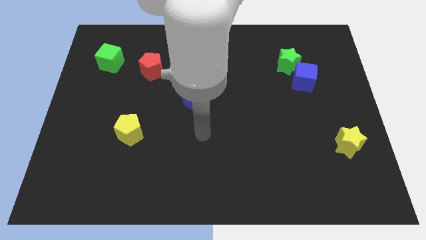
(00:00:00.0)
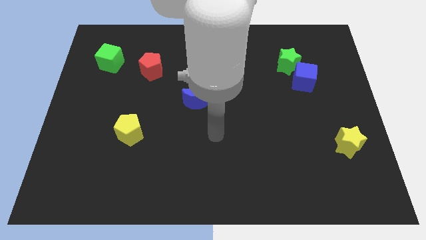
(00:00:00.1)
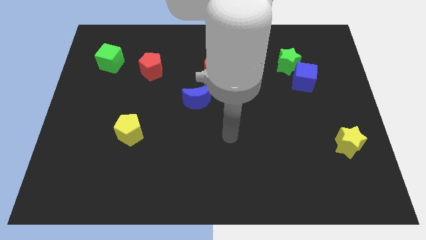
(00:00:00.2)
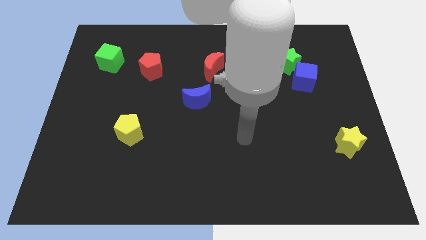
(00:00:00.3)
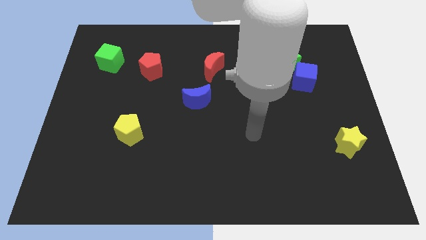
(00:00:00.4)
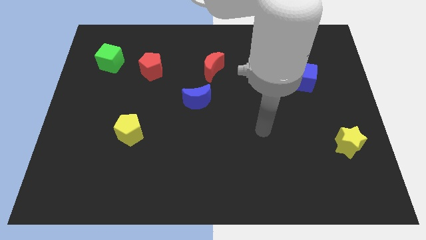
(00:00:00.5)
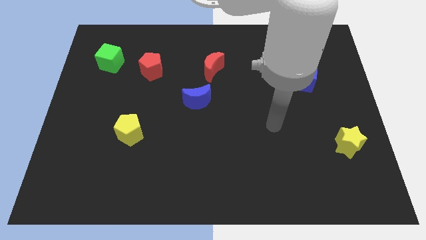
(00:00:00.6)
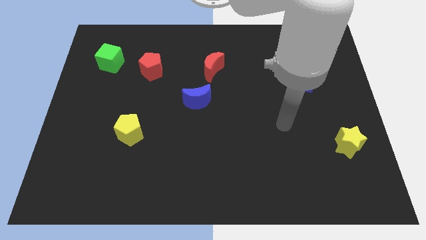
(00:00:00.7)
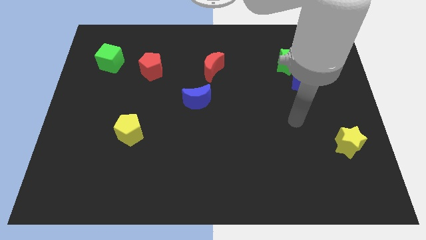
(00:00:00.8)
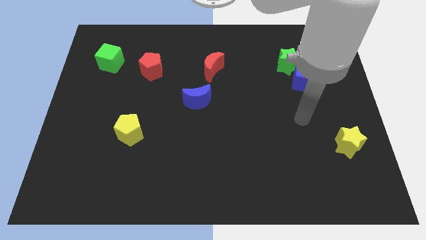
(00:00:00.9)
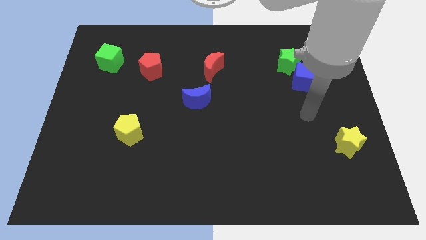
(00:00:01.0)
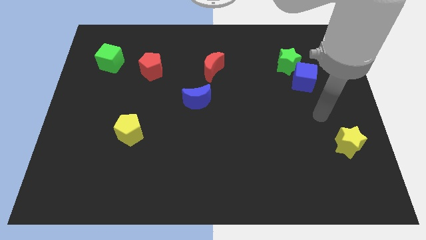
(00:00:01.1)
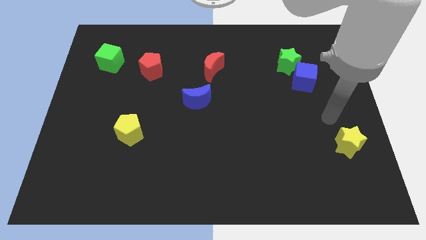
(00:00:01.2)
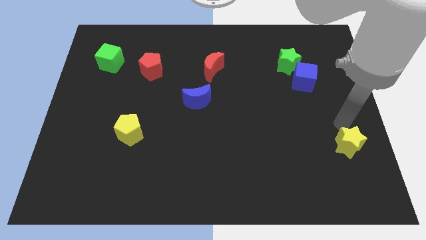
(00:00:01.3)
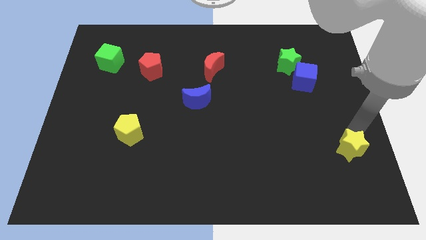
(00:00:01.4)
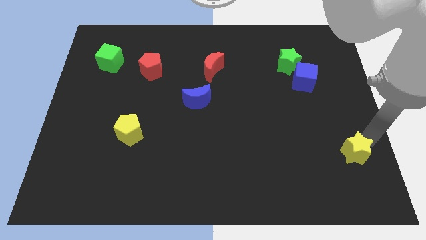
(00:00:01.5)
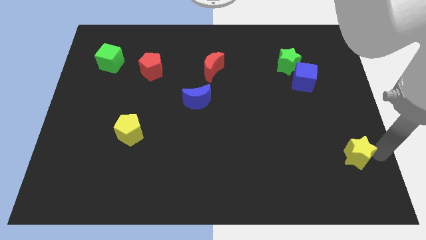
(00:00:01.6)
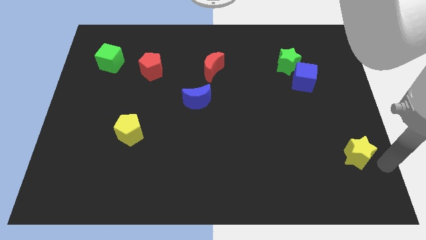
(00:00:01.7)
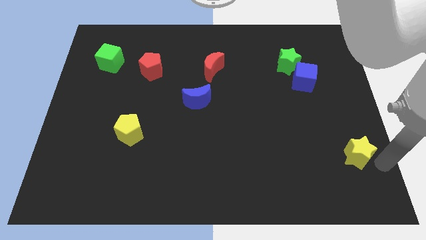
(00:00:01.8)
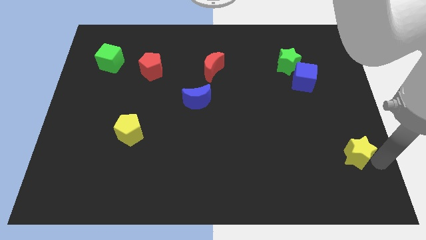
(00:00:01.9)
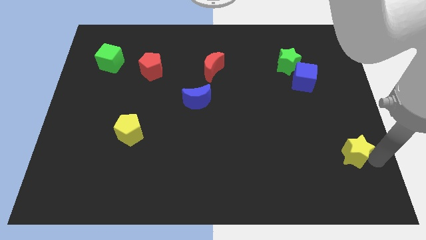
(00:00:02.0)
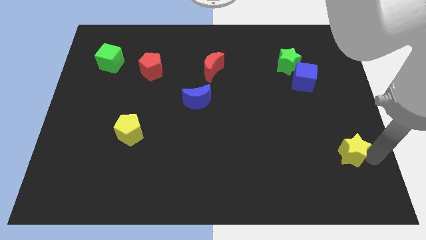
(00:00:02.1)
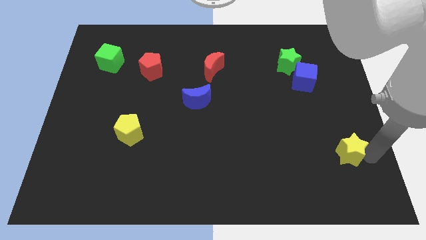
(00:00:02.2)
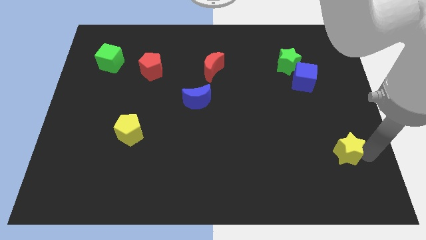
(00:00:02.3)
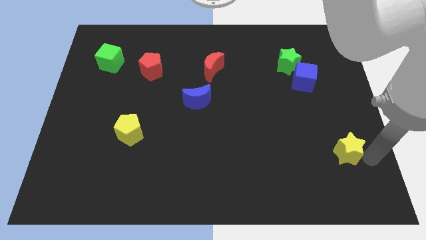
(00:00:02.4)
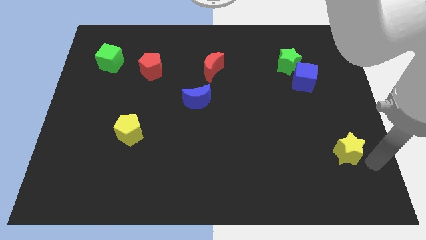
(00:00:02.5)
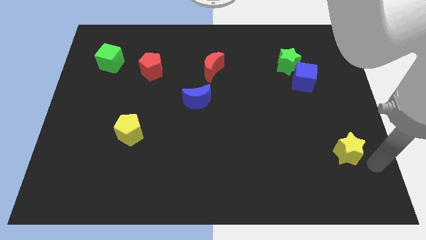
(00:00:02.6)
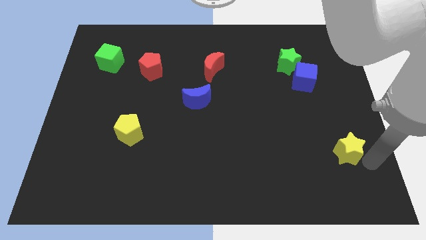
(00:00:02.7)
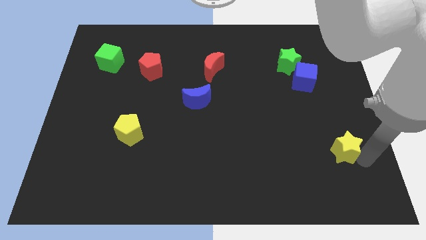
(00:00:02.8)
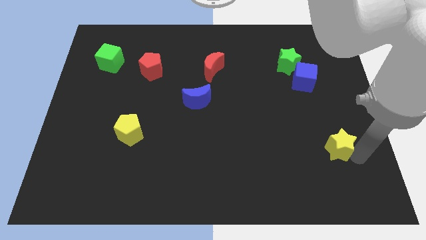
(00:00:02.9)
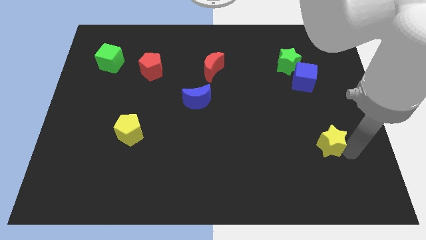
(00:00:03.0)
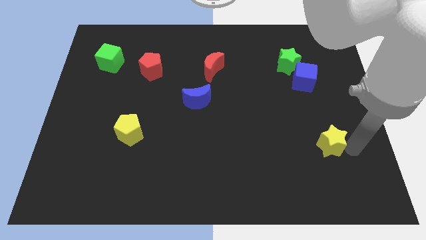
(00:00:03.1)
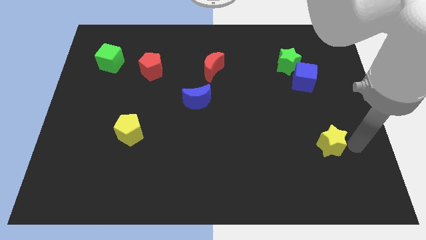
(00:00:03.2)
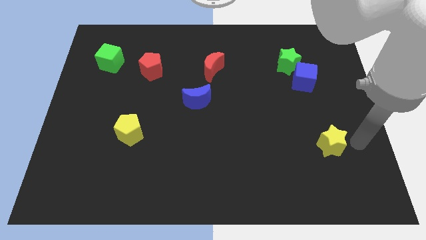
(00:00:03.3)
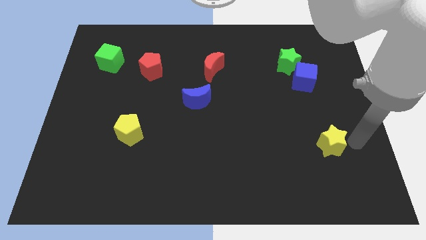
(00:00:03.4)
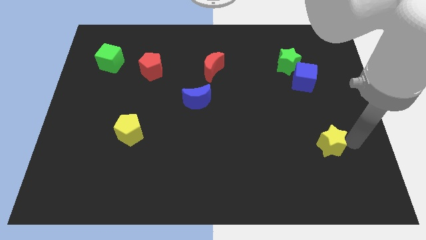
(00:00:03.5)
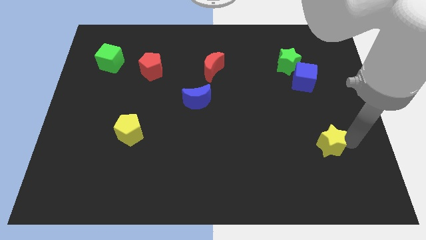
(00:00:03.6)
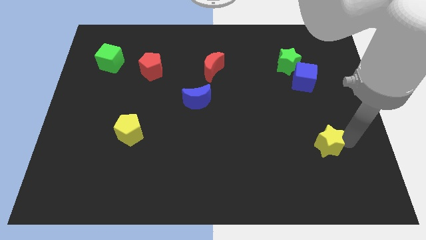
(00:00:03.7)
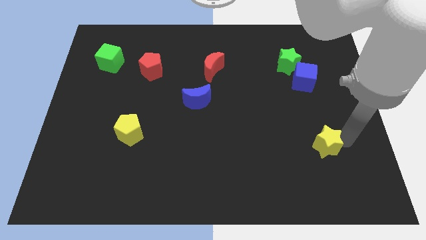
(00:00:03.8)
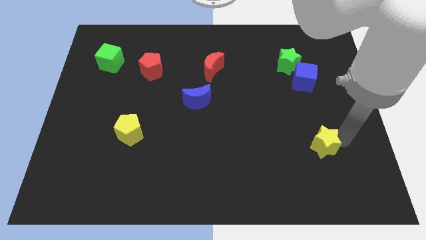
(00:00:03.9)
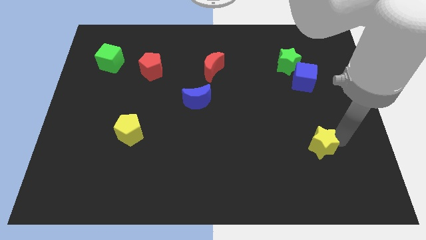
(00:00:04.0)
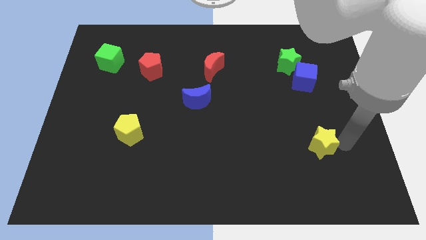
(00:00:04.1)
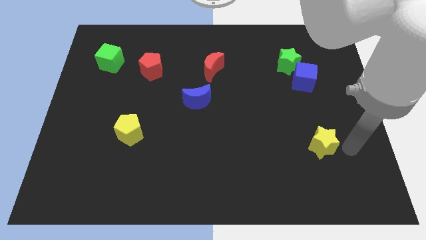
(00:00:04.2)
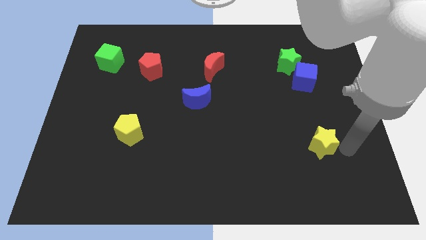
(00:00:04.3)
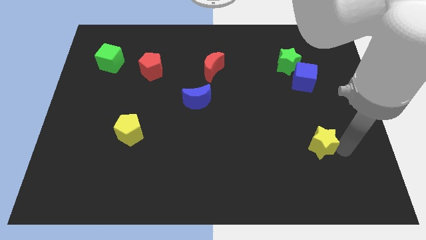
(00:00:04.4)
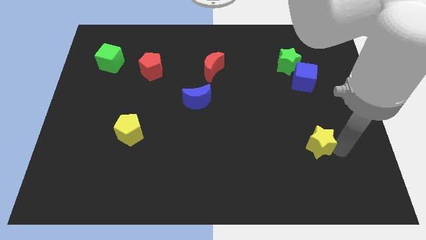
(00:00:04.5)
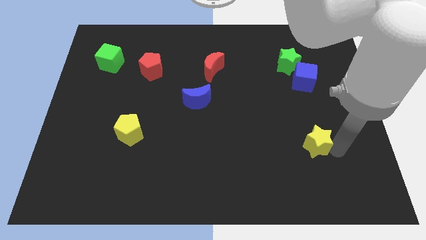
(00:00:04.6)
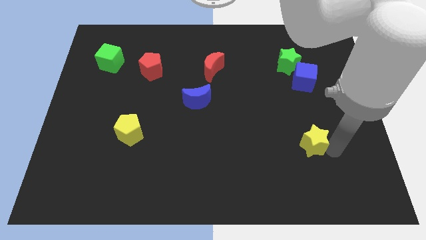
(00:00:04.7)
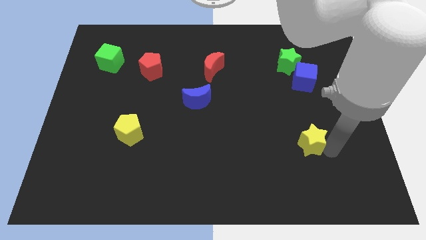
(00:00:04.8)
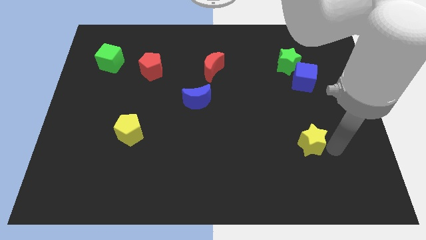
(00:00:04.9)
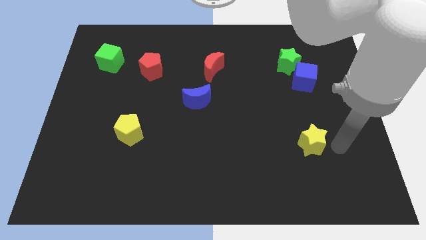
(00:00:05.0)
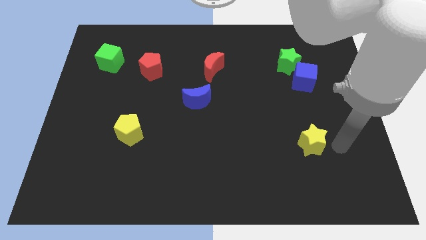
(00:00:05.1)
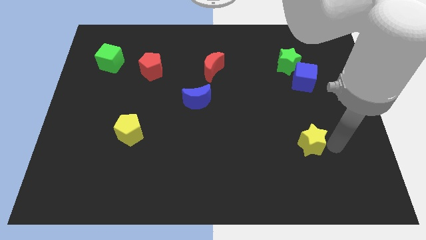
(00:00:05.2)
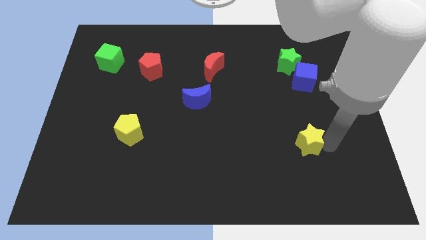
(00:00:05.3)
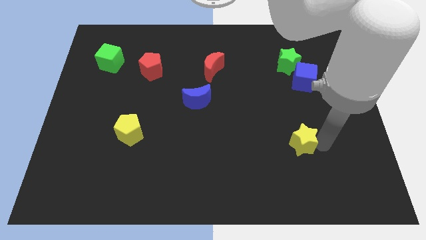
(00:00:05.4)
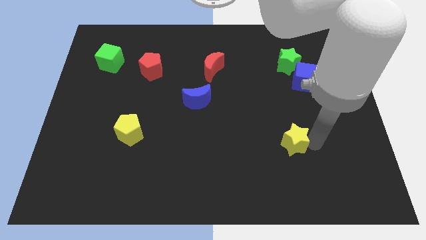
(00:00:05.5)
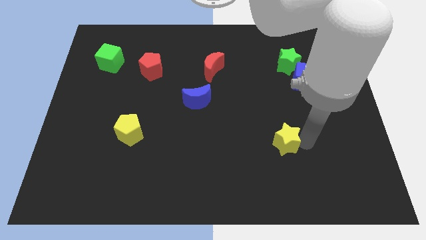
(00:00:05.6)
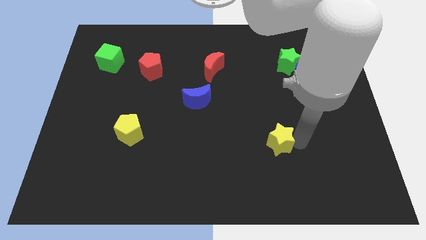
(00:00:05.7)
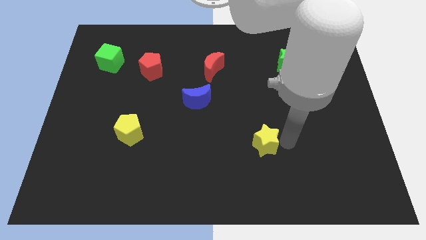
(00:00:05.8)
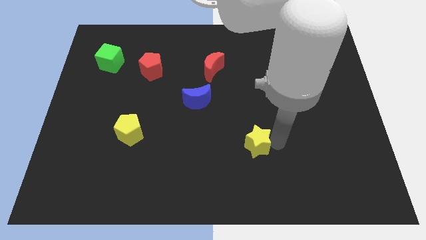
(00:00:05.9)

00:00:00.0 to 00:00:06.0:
slide the yellow star to the left

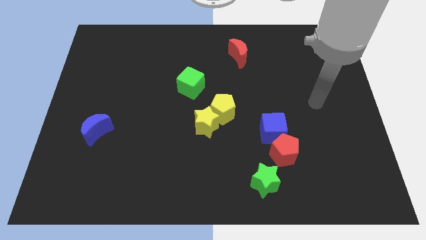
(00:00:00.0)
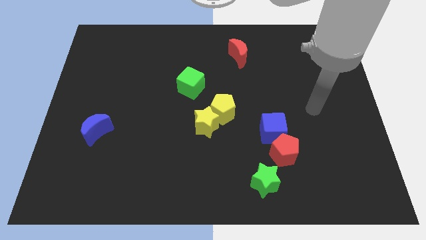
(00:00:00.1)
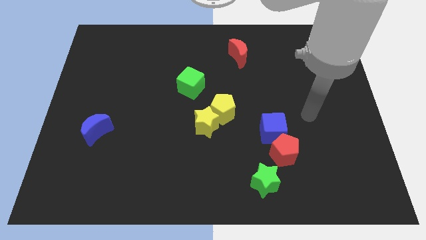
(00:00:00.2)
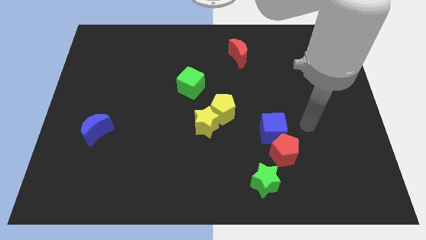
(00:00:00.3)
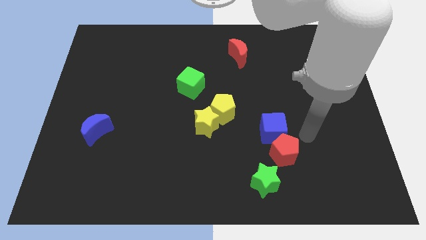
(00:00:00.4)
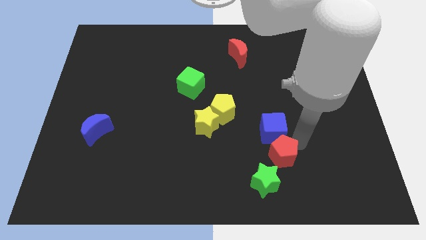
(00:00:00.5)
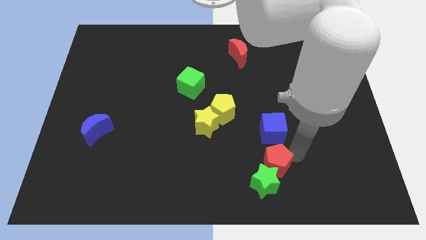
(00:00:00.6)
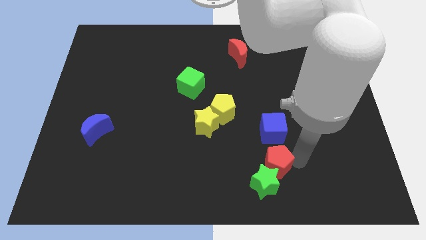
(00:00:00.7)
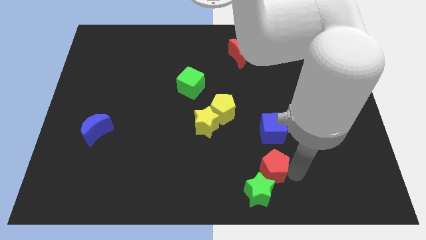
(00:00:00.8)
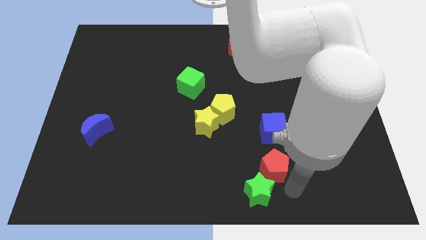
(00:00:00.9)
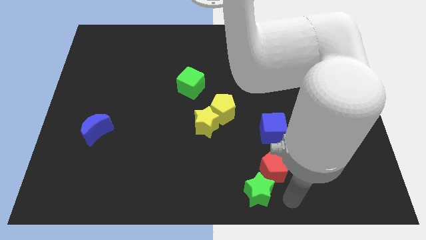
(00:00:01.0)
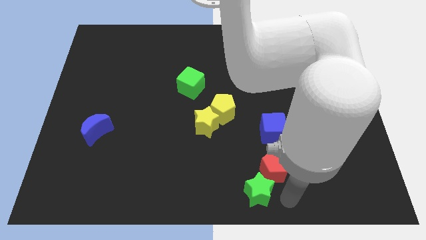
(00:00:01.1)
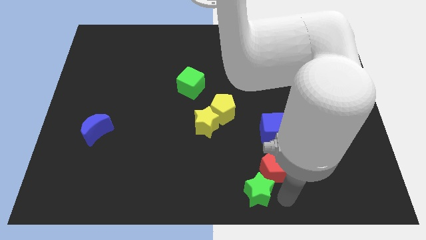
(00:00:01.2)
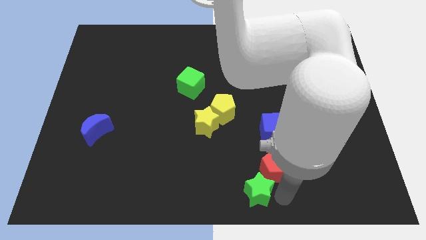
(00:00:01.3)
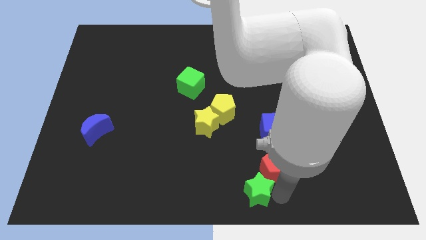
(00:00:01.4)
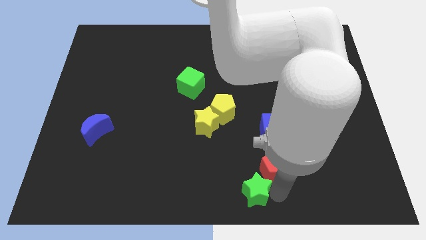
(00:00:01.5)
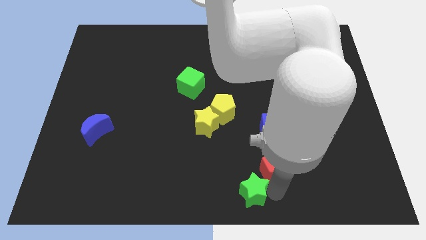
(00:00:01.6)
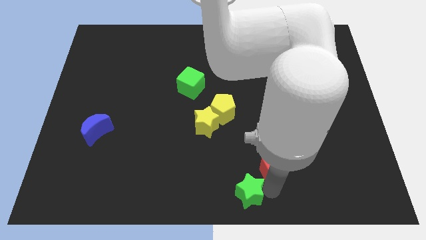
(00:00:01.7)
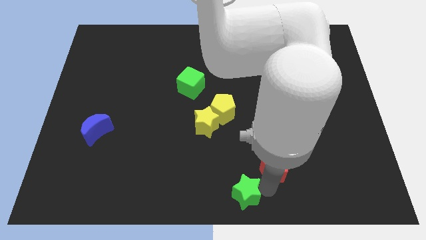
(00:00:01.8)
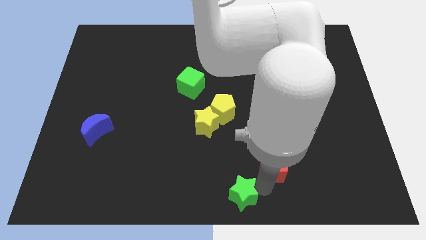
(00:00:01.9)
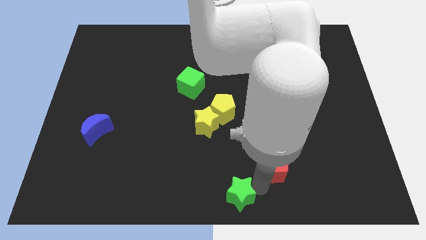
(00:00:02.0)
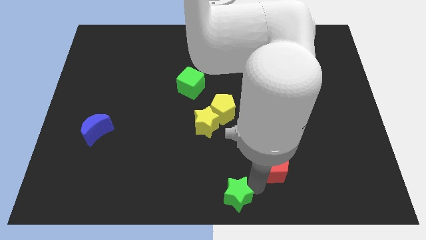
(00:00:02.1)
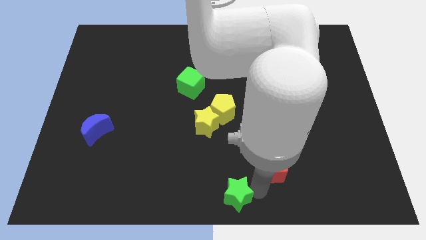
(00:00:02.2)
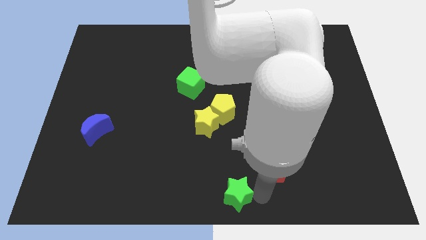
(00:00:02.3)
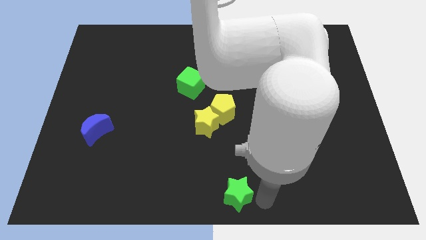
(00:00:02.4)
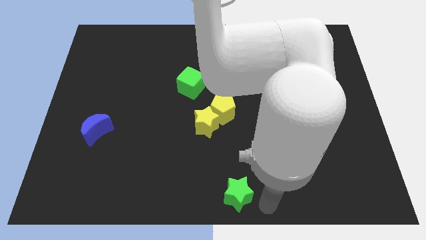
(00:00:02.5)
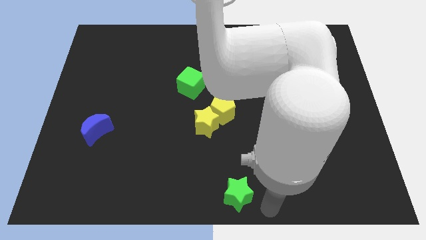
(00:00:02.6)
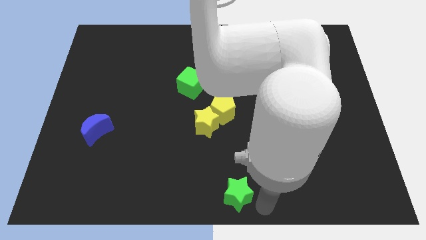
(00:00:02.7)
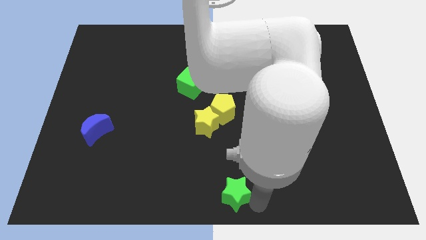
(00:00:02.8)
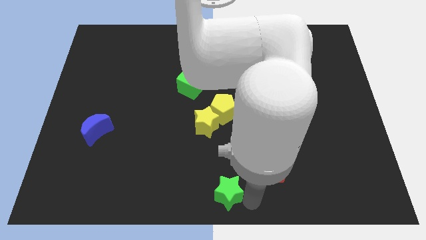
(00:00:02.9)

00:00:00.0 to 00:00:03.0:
push the green star a bit to the left
